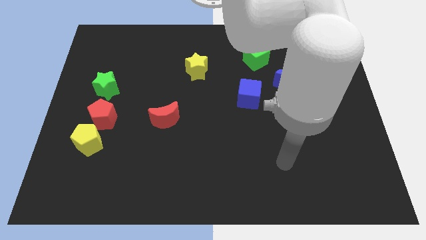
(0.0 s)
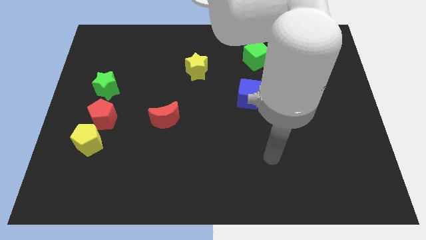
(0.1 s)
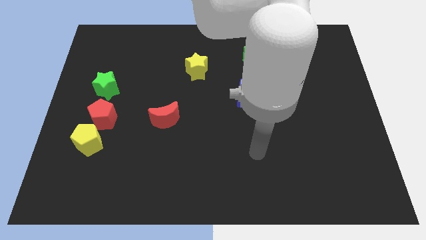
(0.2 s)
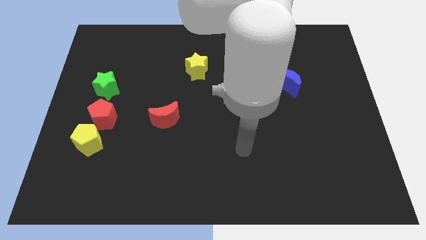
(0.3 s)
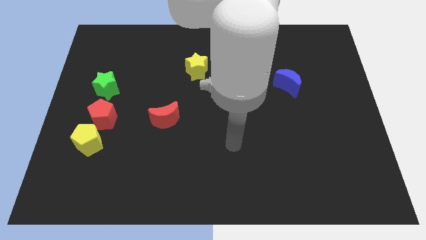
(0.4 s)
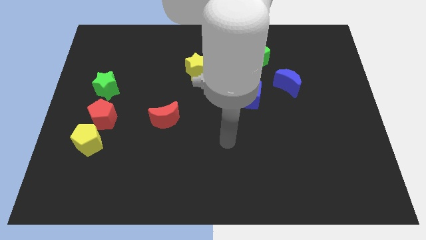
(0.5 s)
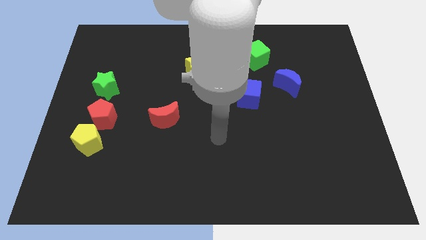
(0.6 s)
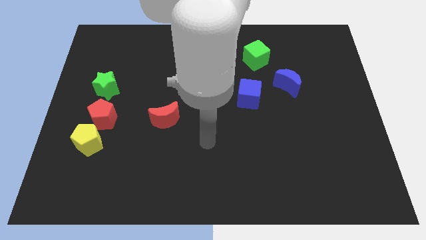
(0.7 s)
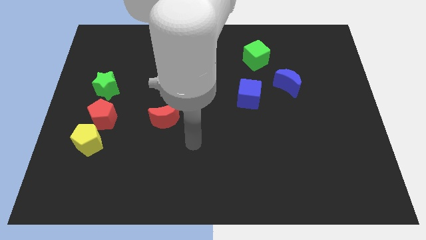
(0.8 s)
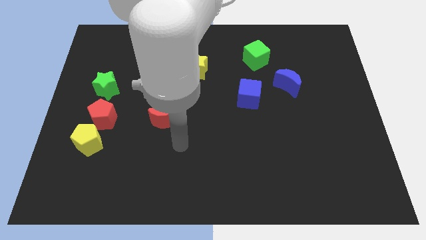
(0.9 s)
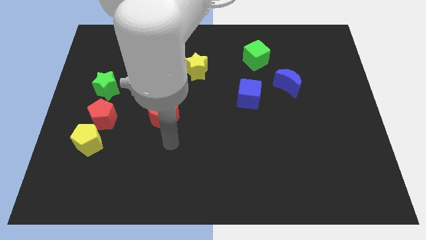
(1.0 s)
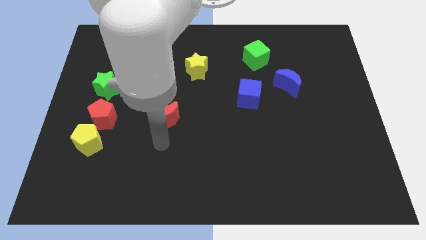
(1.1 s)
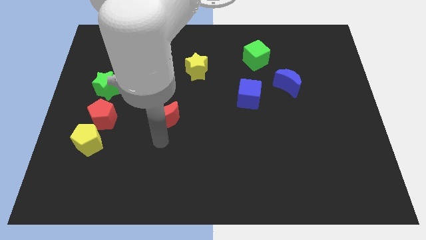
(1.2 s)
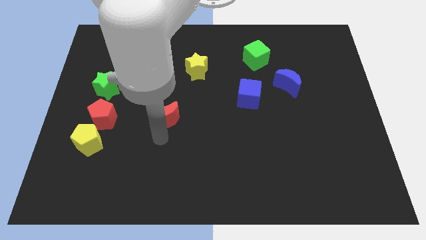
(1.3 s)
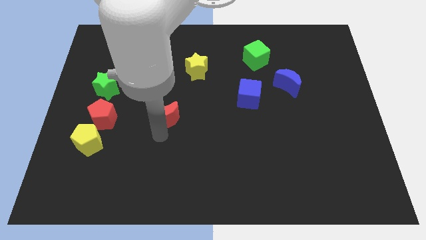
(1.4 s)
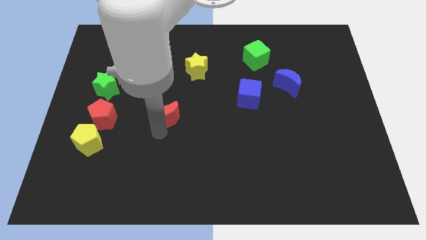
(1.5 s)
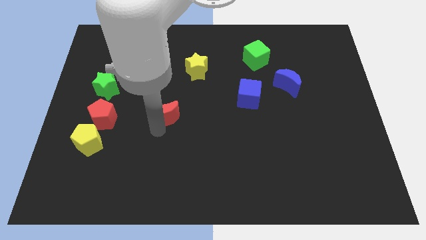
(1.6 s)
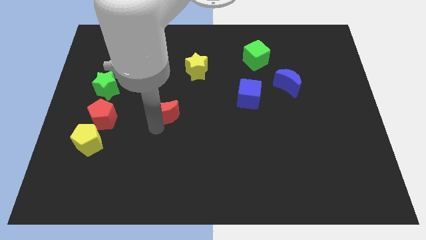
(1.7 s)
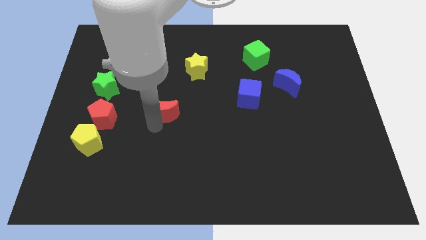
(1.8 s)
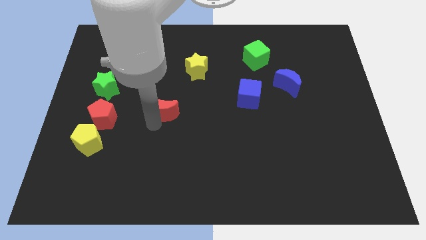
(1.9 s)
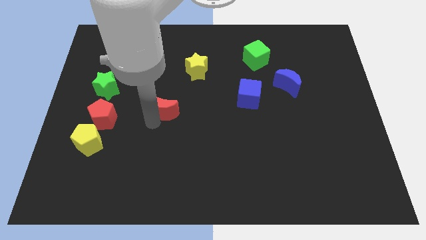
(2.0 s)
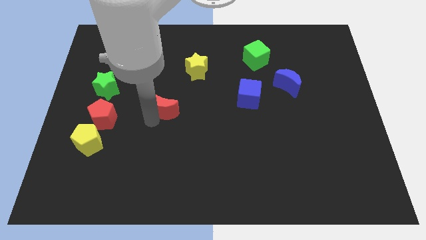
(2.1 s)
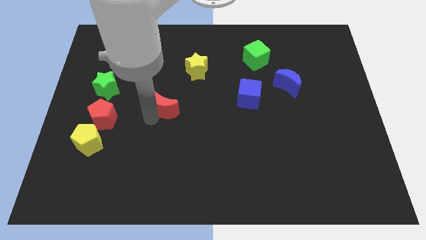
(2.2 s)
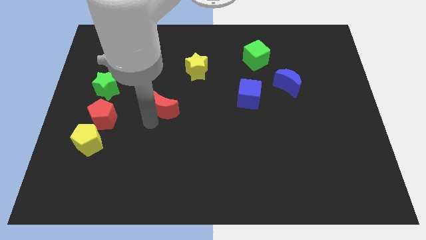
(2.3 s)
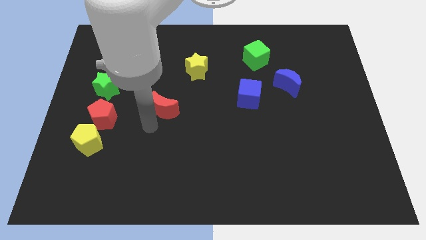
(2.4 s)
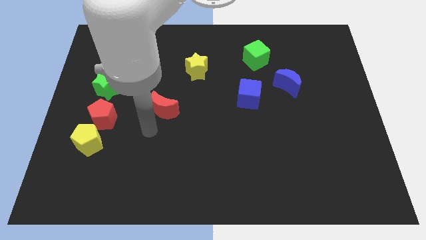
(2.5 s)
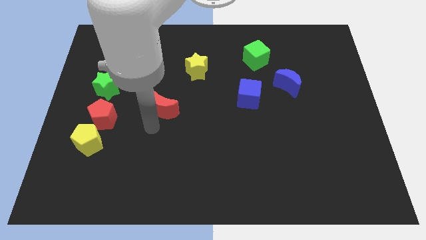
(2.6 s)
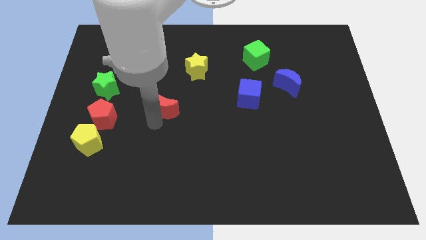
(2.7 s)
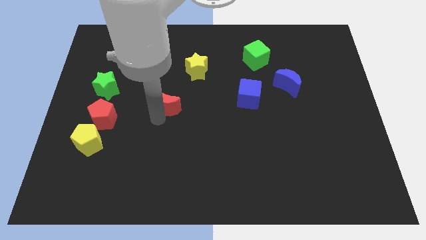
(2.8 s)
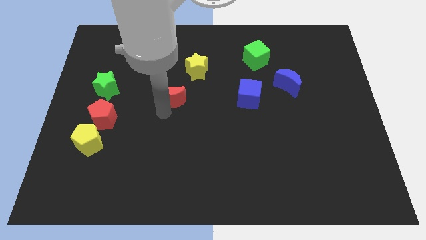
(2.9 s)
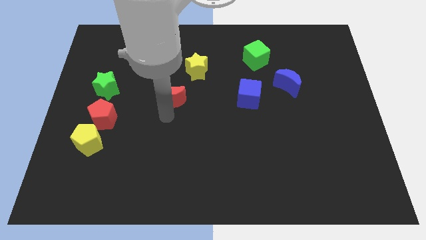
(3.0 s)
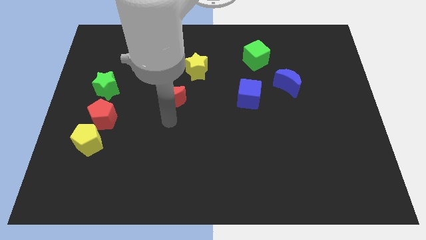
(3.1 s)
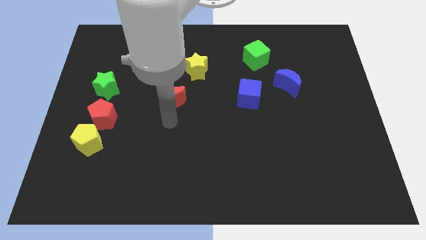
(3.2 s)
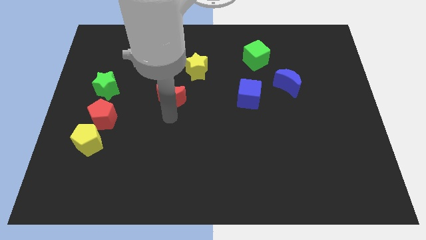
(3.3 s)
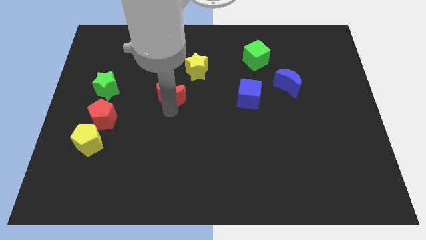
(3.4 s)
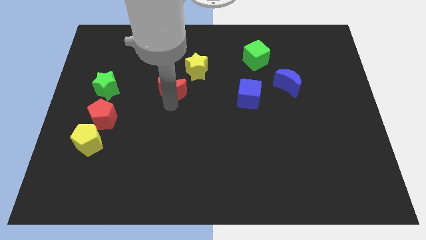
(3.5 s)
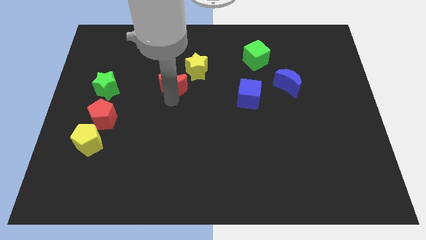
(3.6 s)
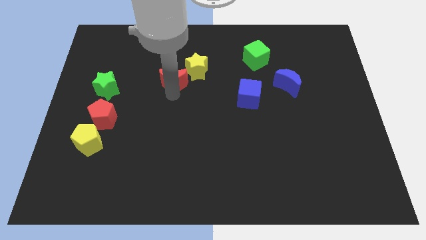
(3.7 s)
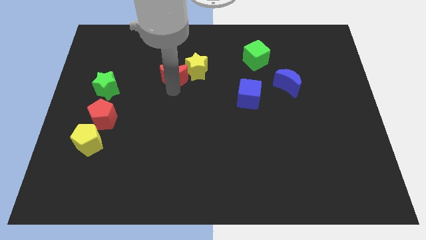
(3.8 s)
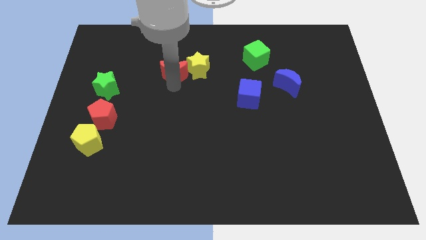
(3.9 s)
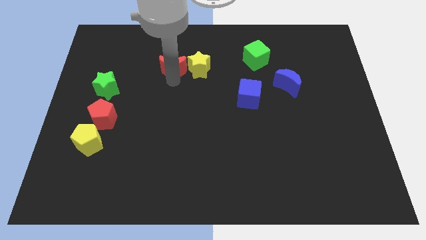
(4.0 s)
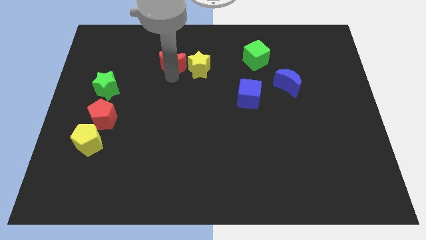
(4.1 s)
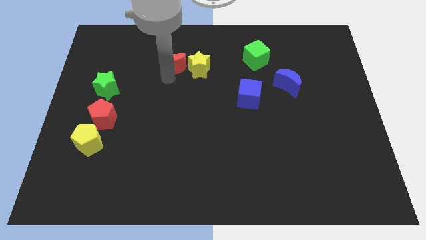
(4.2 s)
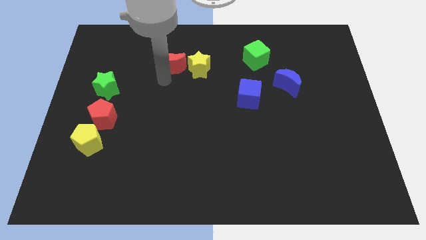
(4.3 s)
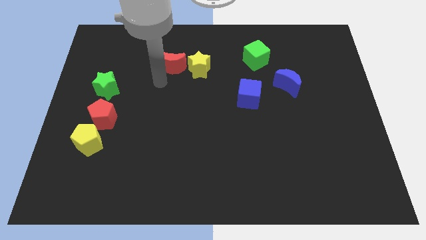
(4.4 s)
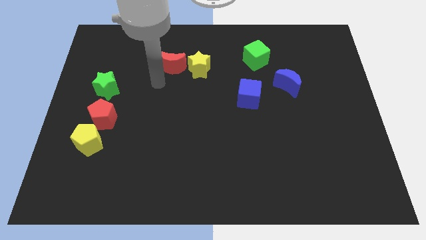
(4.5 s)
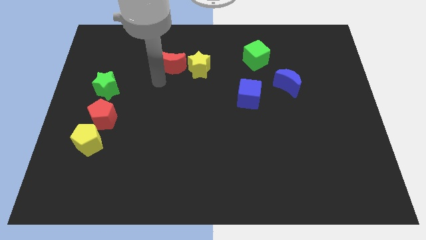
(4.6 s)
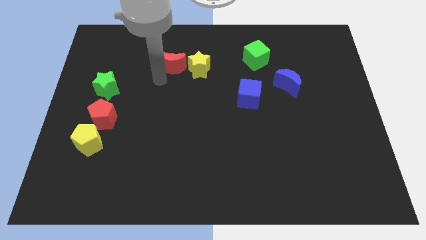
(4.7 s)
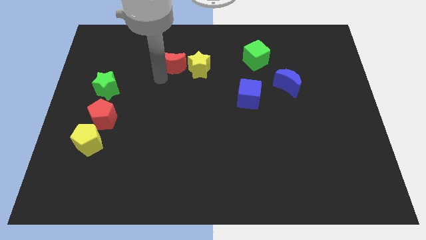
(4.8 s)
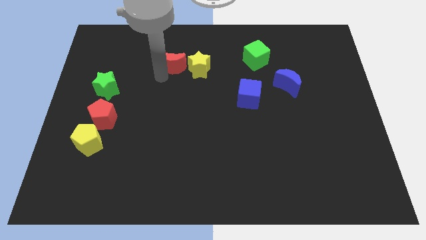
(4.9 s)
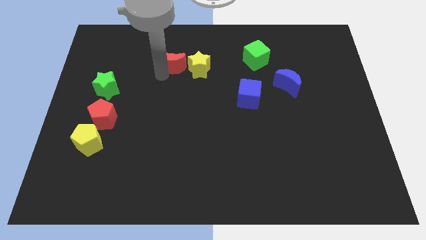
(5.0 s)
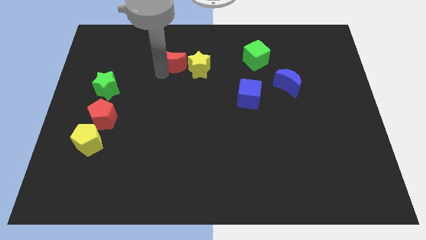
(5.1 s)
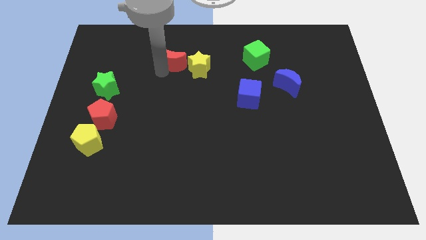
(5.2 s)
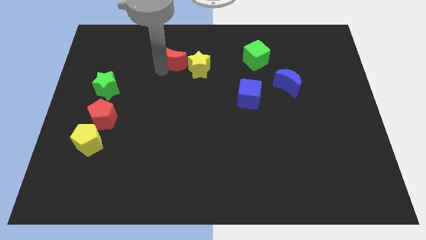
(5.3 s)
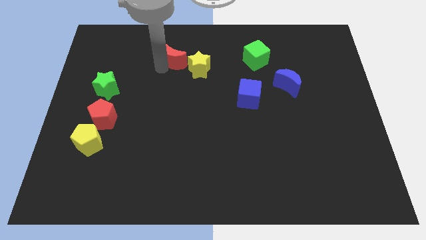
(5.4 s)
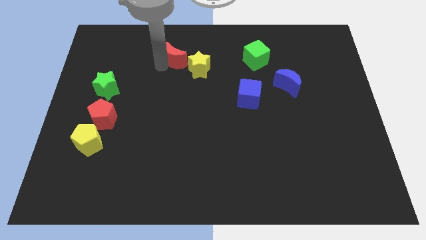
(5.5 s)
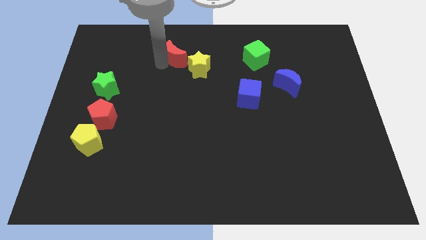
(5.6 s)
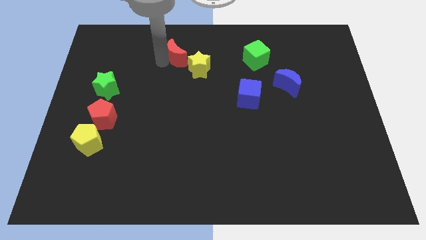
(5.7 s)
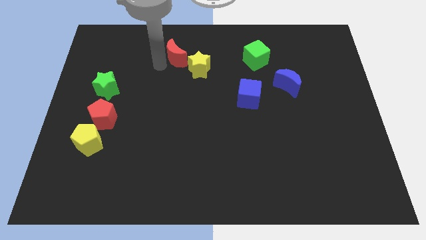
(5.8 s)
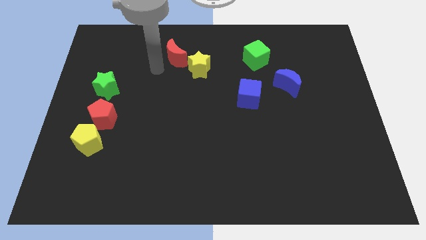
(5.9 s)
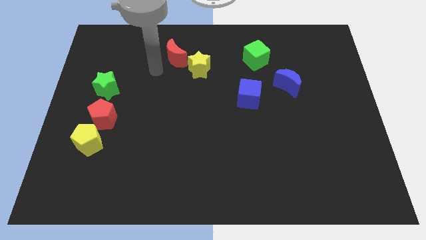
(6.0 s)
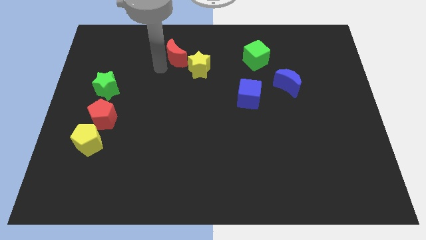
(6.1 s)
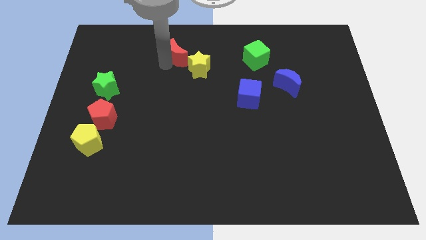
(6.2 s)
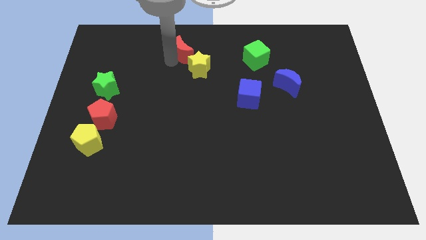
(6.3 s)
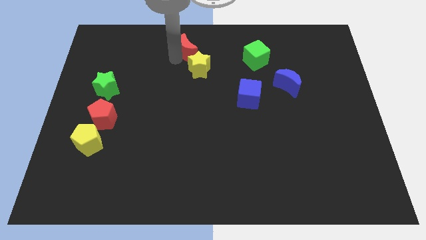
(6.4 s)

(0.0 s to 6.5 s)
move the red moon to the top side
